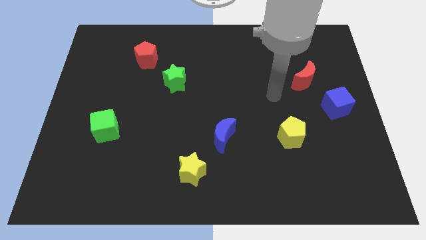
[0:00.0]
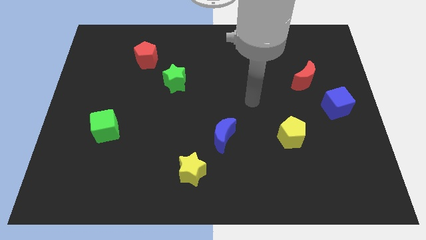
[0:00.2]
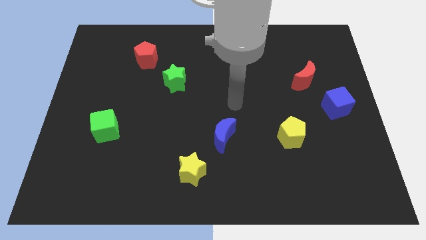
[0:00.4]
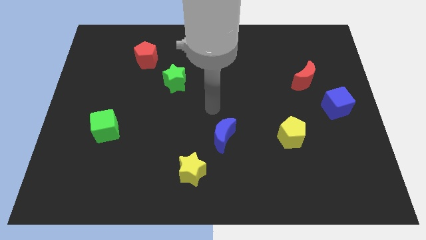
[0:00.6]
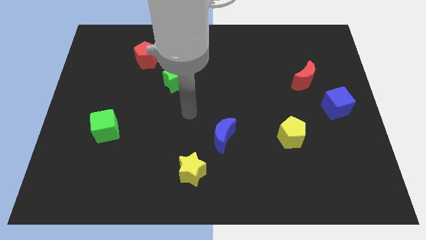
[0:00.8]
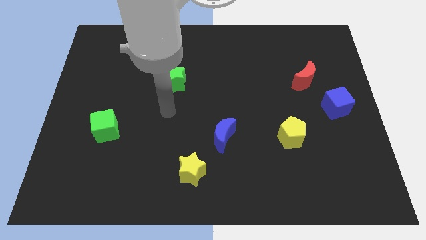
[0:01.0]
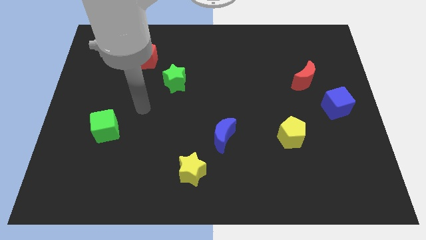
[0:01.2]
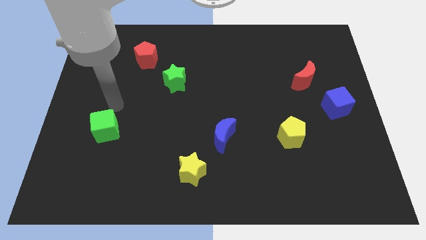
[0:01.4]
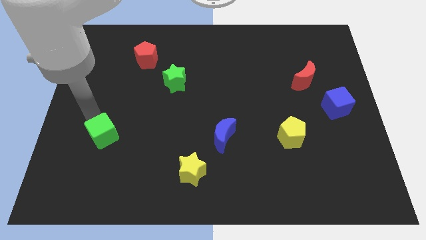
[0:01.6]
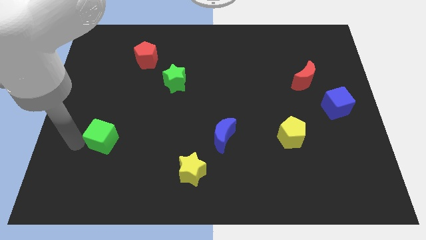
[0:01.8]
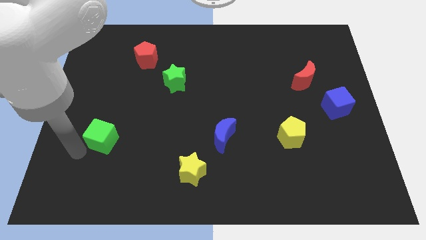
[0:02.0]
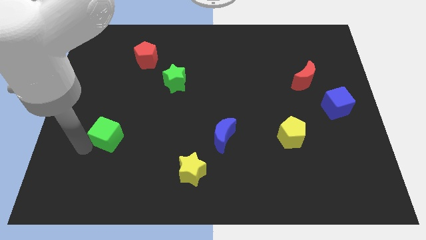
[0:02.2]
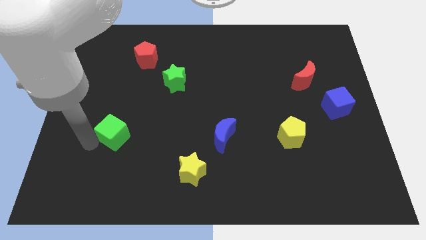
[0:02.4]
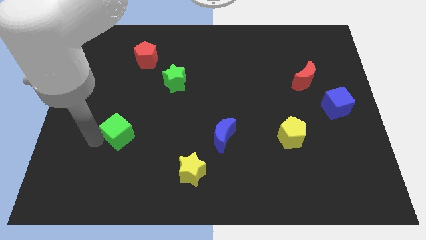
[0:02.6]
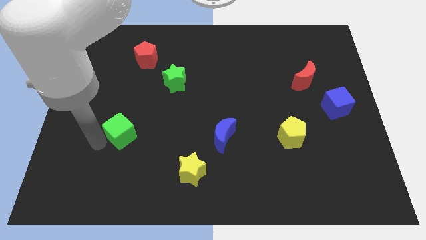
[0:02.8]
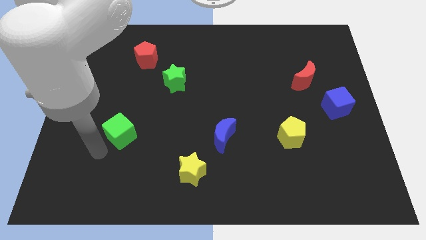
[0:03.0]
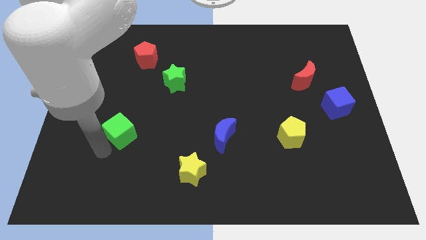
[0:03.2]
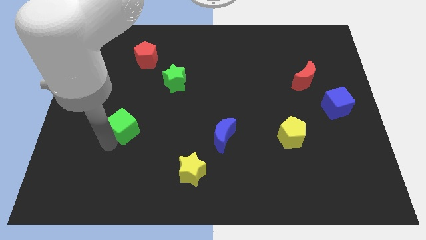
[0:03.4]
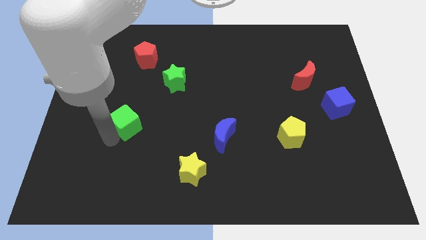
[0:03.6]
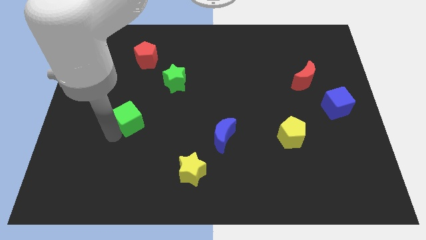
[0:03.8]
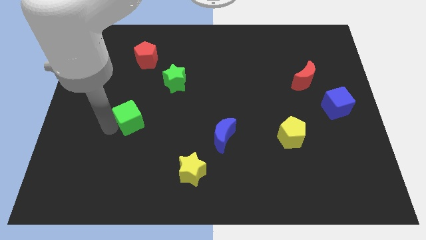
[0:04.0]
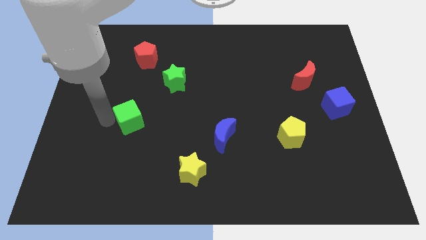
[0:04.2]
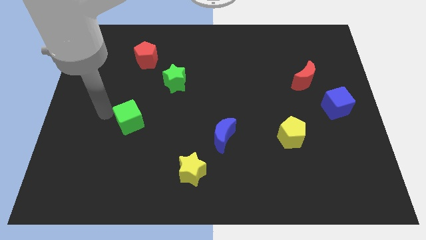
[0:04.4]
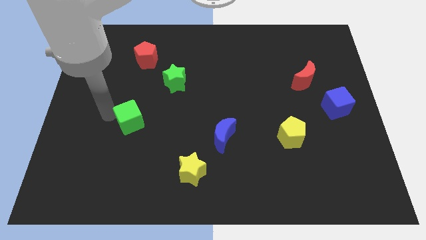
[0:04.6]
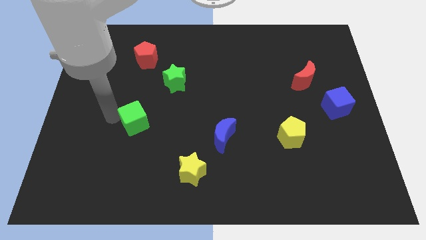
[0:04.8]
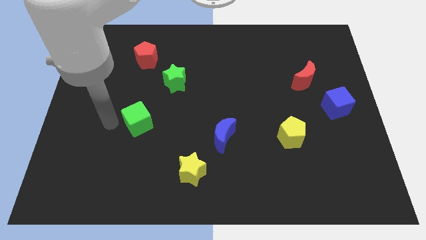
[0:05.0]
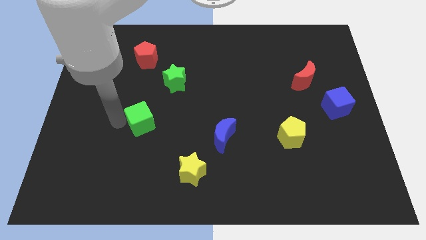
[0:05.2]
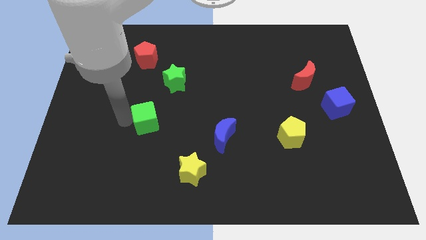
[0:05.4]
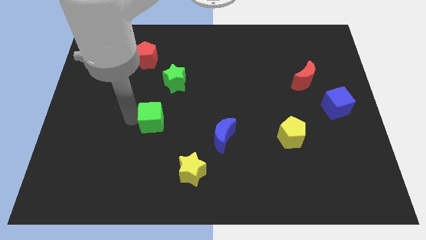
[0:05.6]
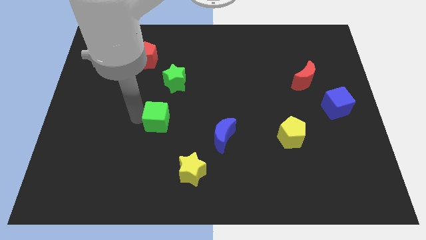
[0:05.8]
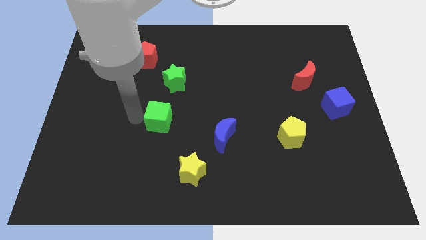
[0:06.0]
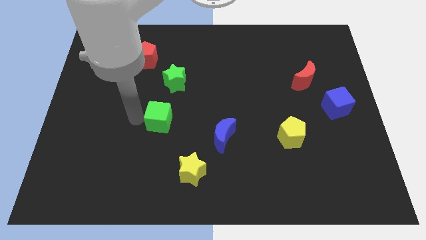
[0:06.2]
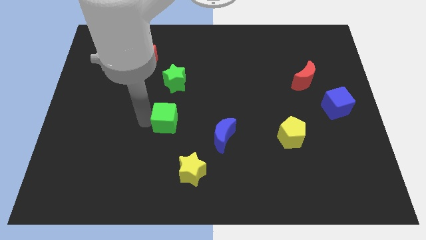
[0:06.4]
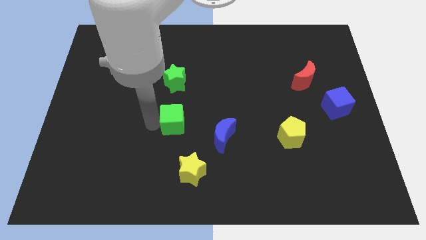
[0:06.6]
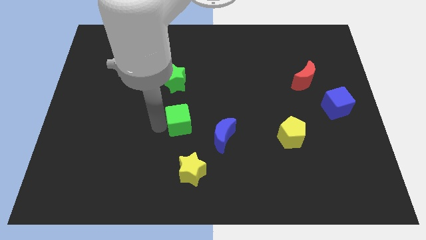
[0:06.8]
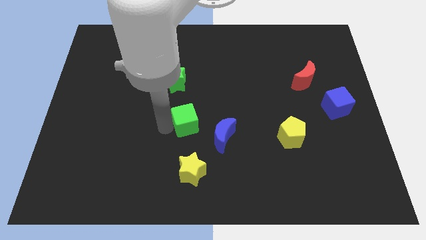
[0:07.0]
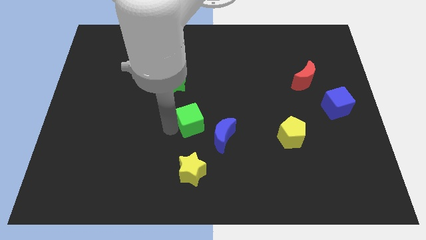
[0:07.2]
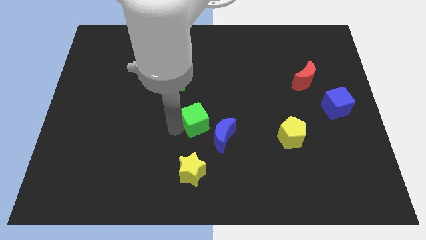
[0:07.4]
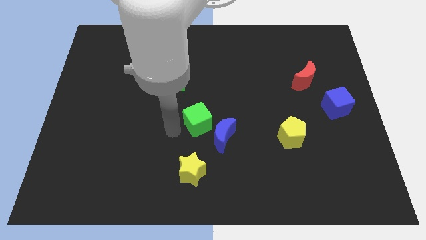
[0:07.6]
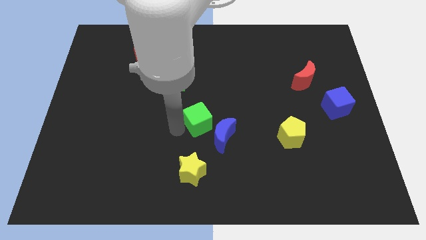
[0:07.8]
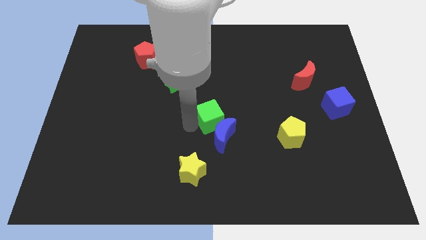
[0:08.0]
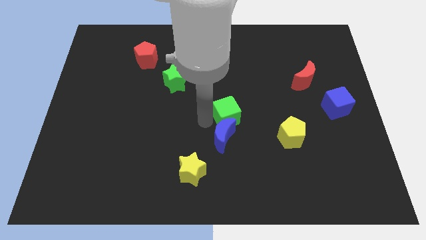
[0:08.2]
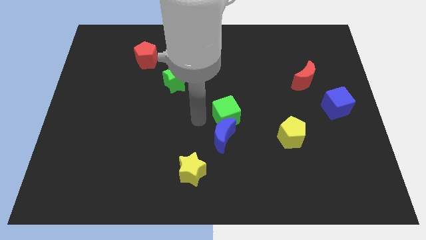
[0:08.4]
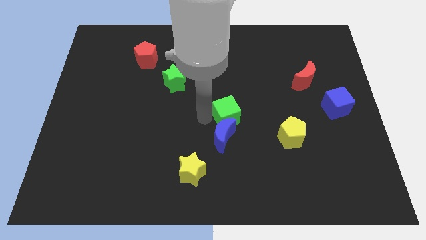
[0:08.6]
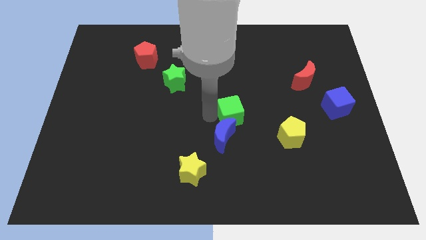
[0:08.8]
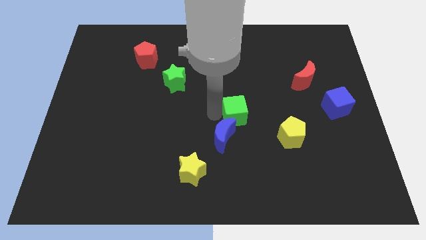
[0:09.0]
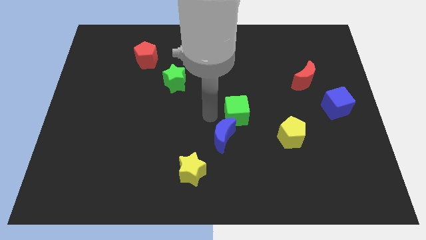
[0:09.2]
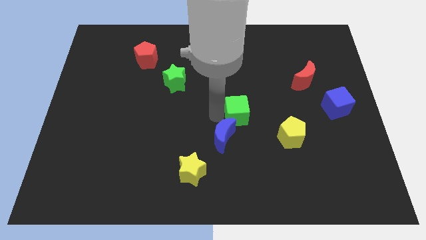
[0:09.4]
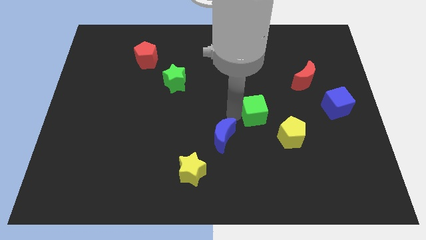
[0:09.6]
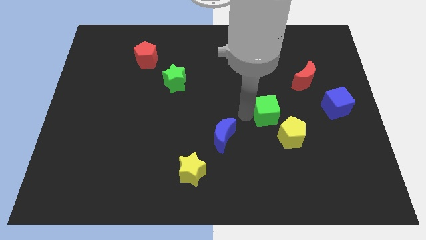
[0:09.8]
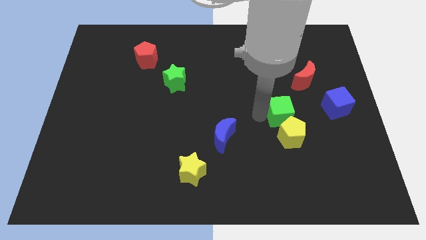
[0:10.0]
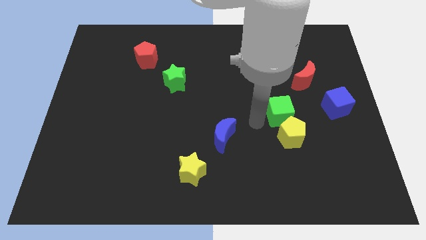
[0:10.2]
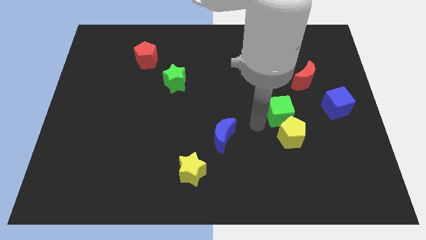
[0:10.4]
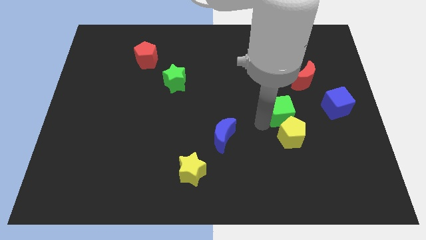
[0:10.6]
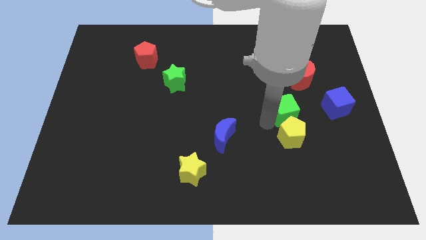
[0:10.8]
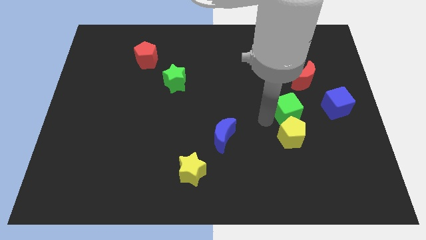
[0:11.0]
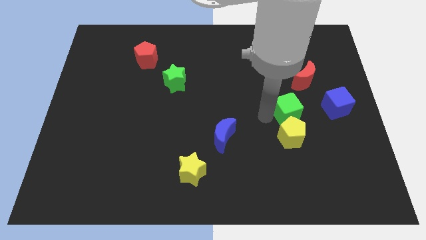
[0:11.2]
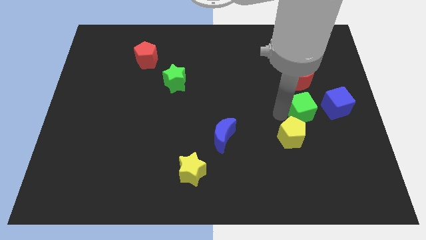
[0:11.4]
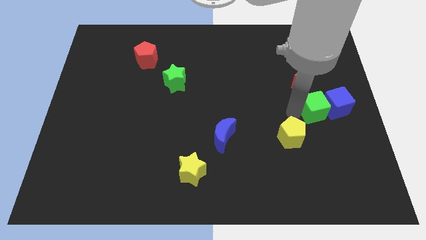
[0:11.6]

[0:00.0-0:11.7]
push the green cube towards the blue cube

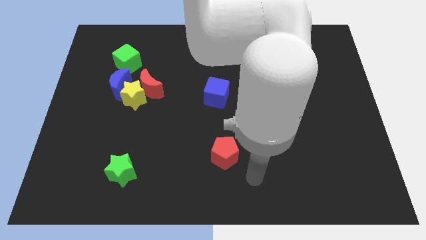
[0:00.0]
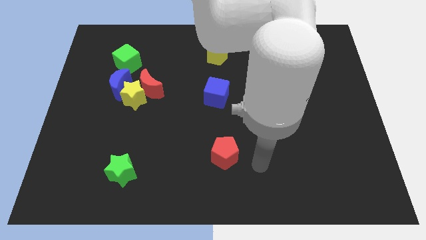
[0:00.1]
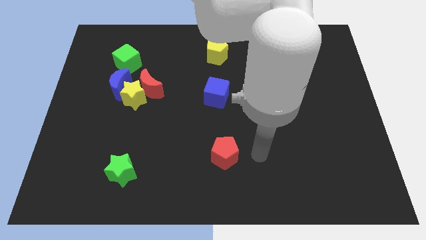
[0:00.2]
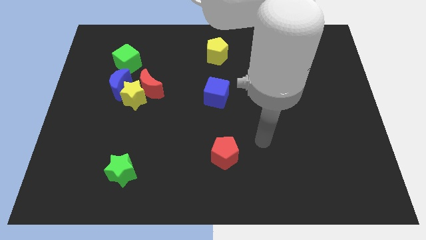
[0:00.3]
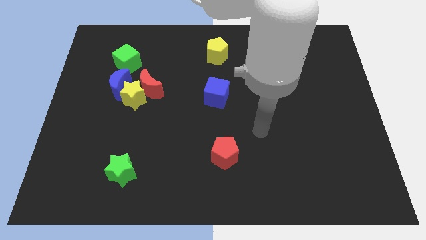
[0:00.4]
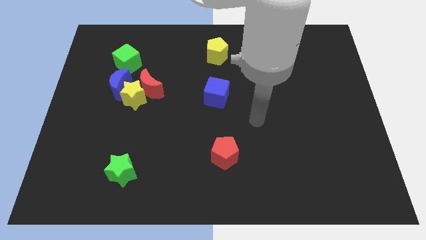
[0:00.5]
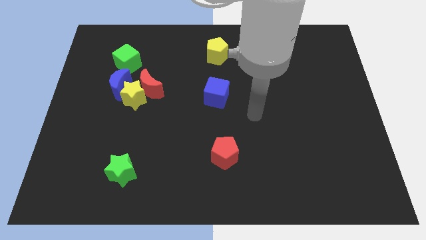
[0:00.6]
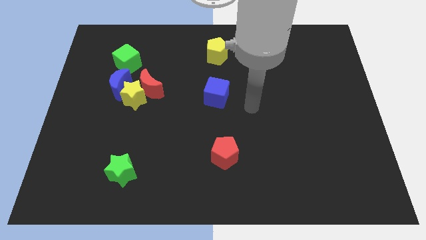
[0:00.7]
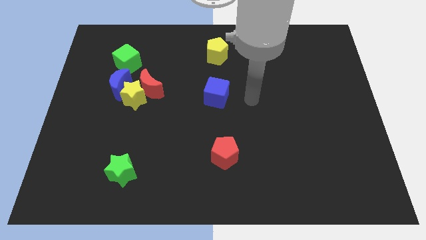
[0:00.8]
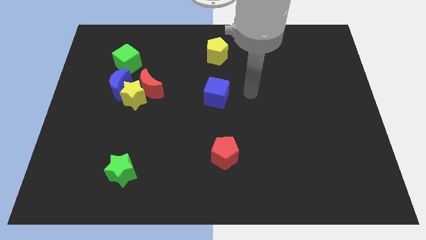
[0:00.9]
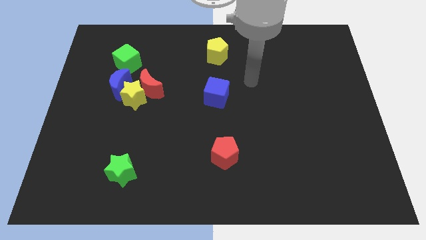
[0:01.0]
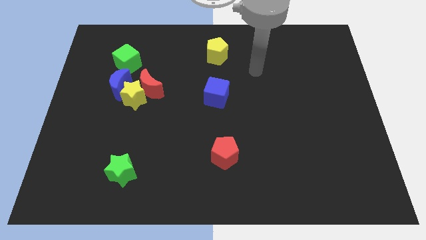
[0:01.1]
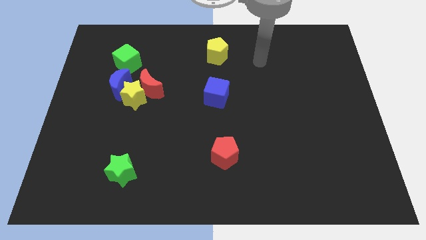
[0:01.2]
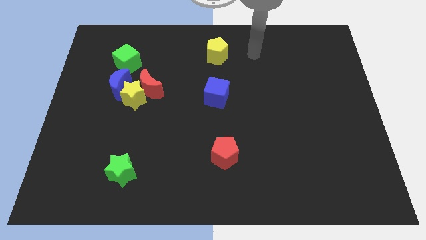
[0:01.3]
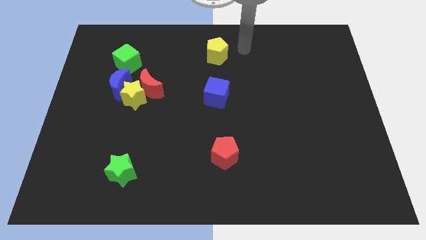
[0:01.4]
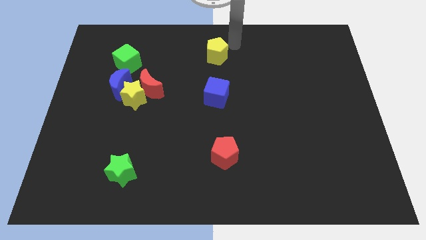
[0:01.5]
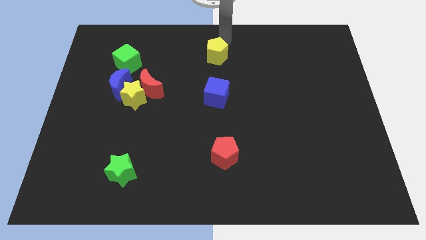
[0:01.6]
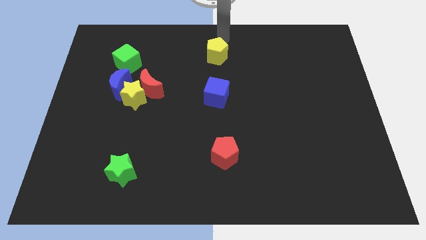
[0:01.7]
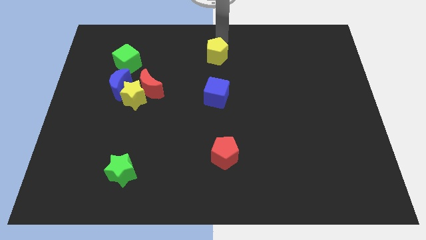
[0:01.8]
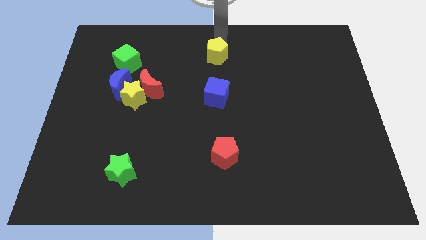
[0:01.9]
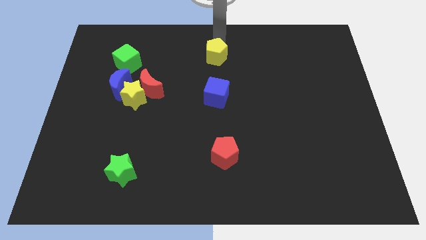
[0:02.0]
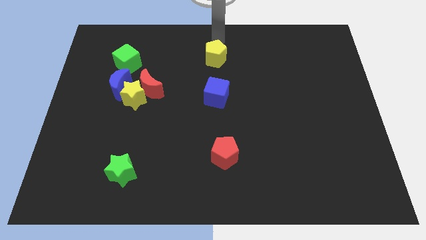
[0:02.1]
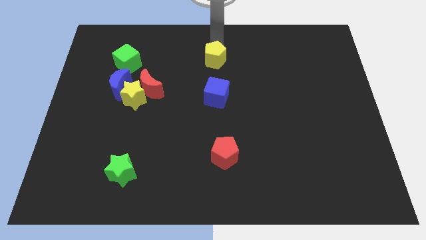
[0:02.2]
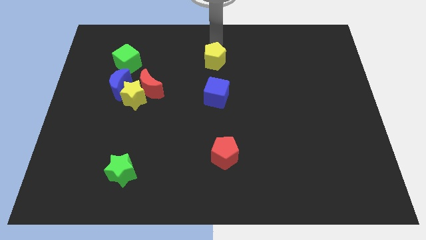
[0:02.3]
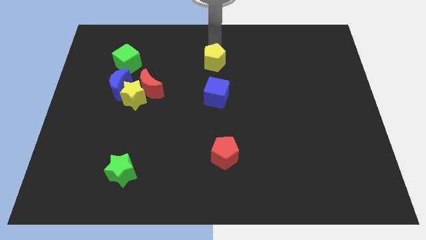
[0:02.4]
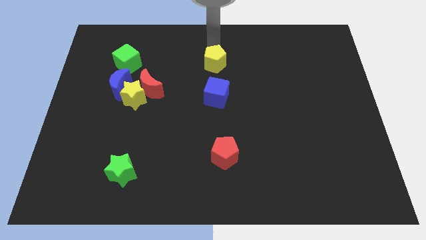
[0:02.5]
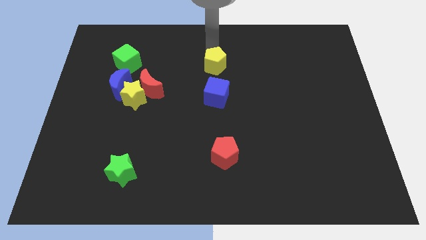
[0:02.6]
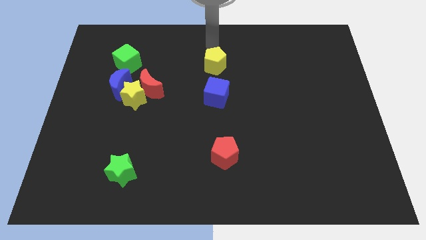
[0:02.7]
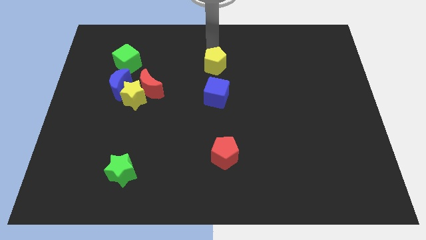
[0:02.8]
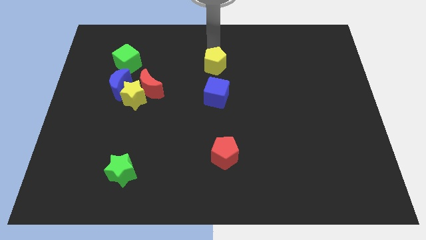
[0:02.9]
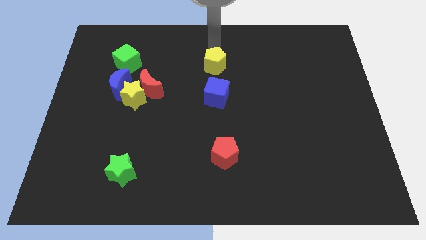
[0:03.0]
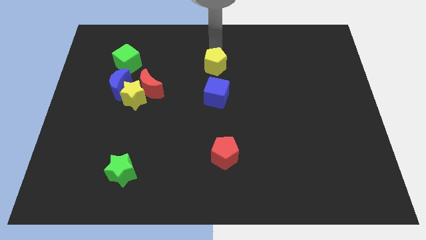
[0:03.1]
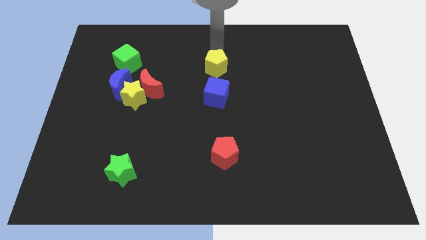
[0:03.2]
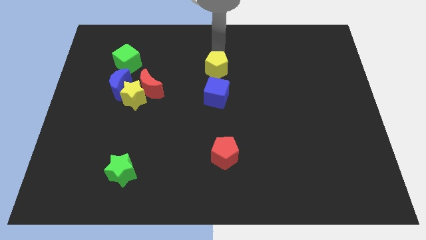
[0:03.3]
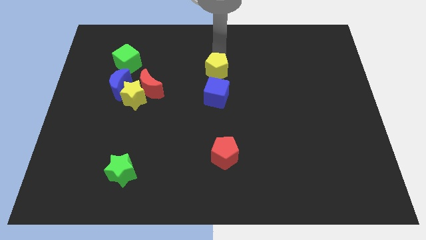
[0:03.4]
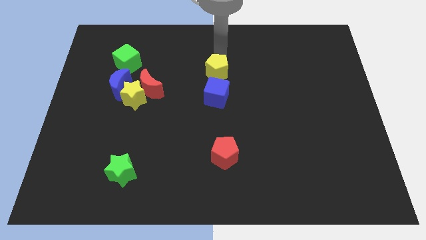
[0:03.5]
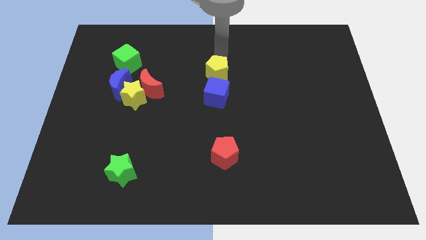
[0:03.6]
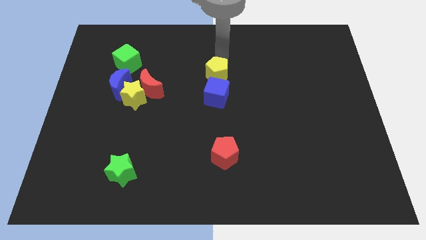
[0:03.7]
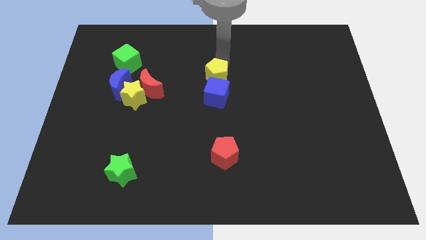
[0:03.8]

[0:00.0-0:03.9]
put the yellow pentagon towards the blue cube
